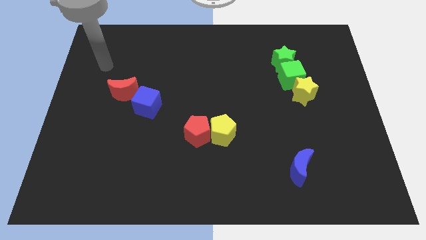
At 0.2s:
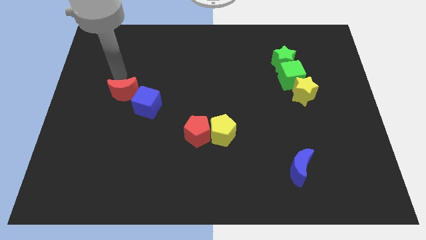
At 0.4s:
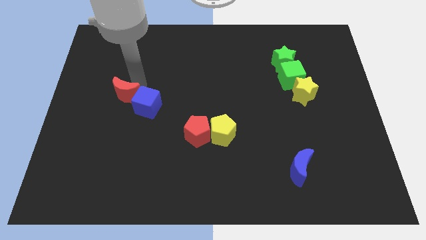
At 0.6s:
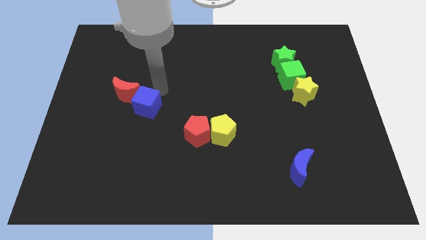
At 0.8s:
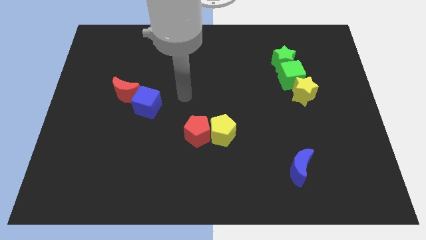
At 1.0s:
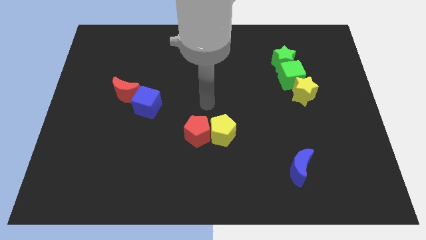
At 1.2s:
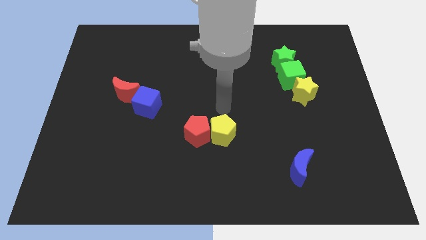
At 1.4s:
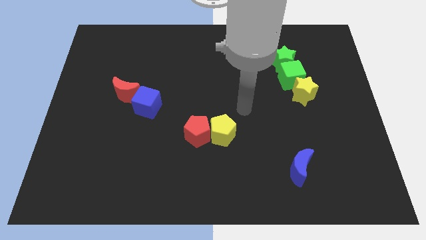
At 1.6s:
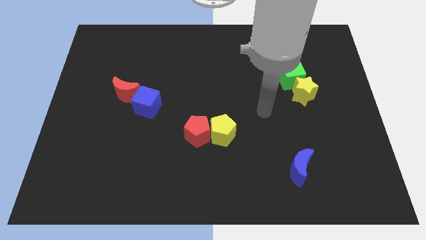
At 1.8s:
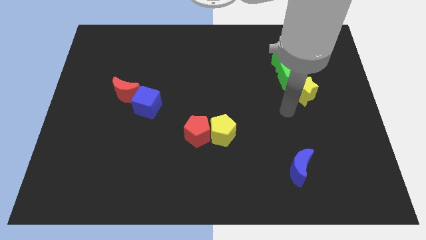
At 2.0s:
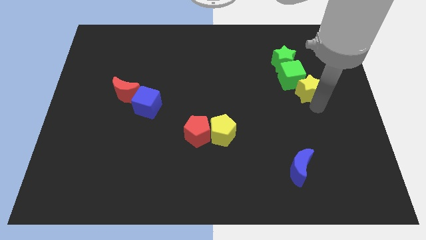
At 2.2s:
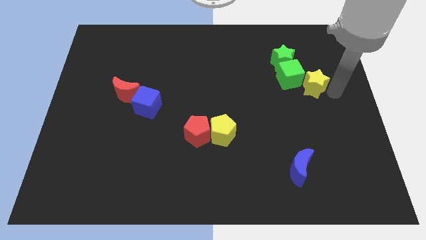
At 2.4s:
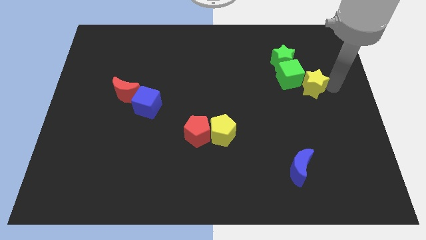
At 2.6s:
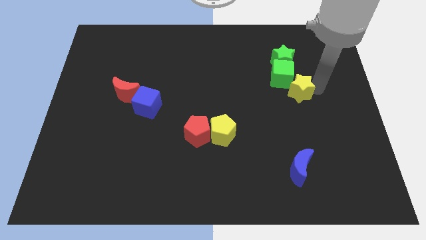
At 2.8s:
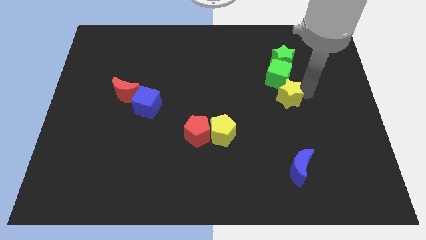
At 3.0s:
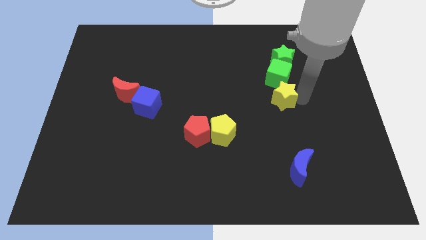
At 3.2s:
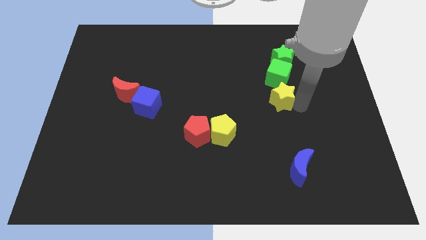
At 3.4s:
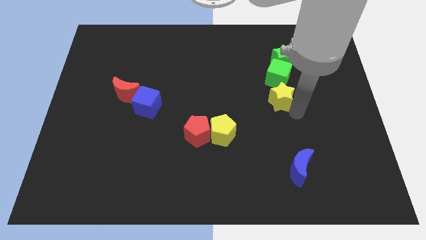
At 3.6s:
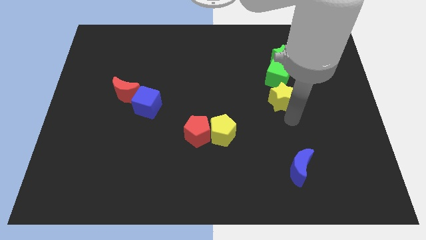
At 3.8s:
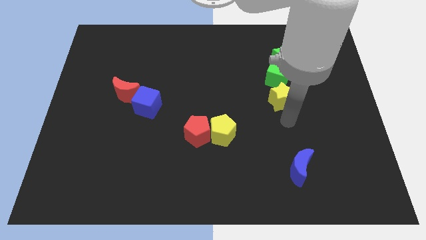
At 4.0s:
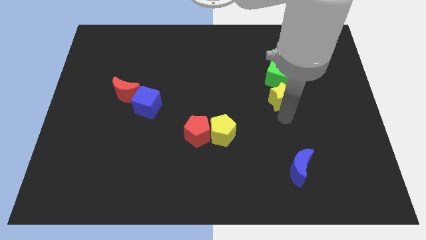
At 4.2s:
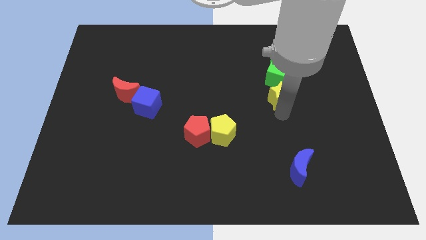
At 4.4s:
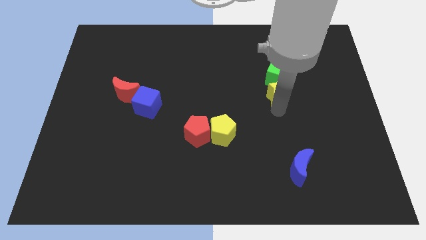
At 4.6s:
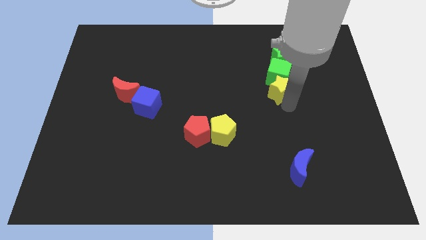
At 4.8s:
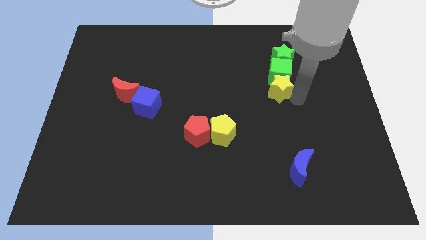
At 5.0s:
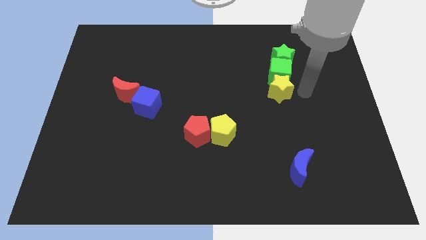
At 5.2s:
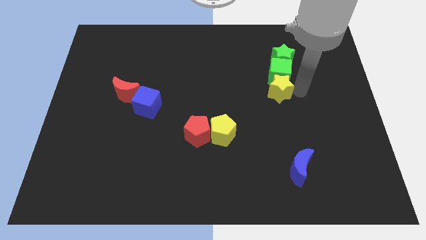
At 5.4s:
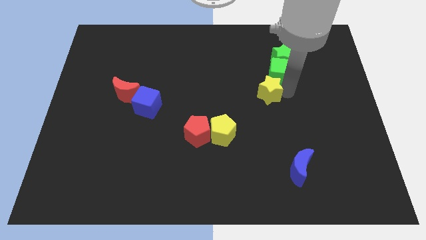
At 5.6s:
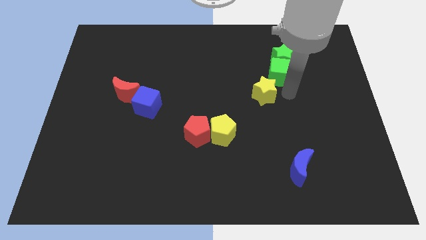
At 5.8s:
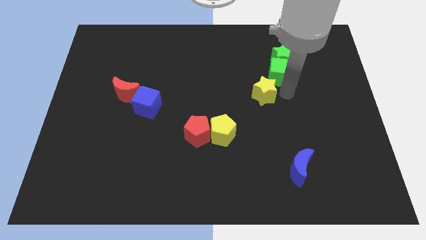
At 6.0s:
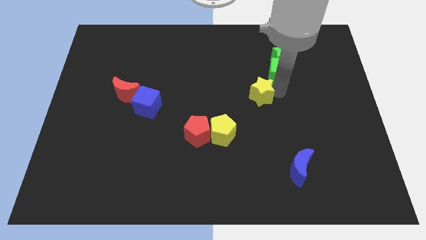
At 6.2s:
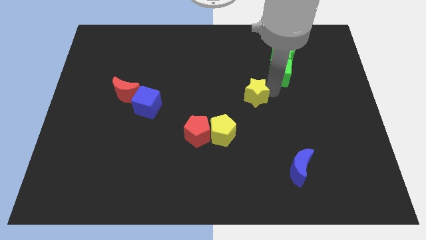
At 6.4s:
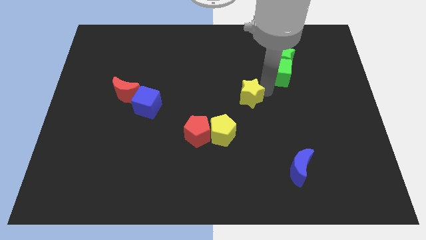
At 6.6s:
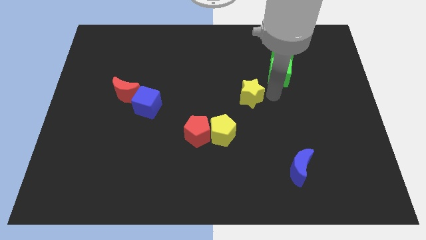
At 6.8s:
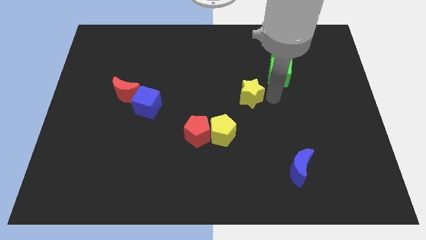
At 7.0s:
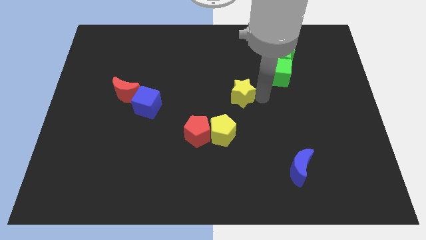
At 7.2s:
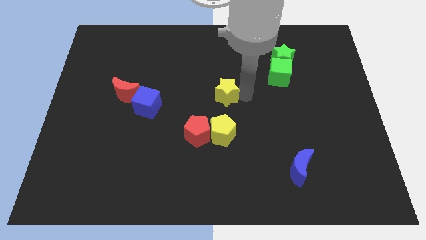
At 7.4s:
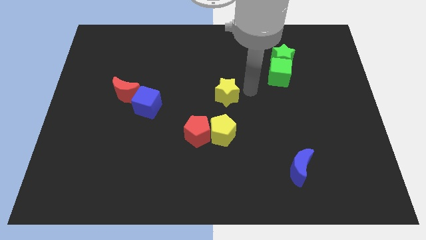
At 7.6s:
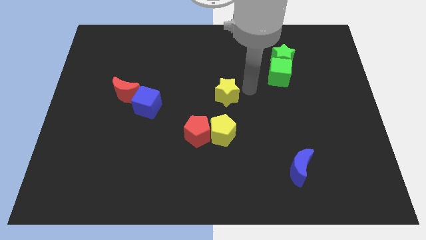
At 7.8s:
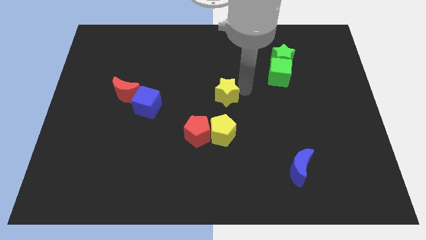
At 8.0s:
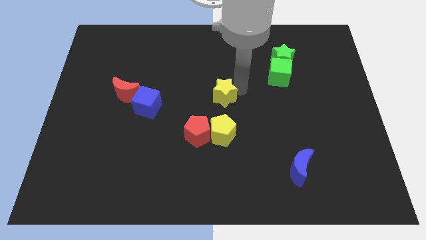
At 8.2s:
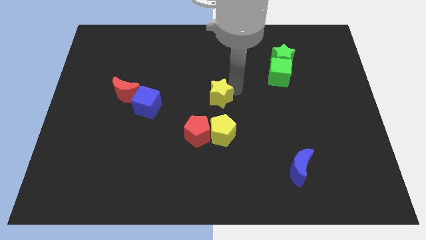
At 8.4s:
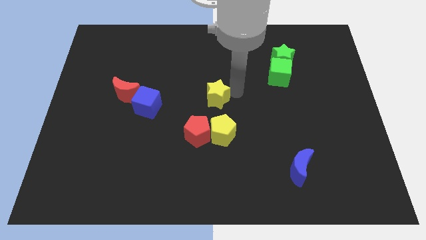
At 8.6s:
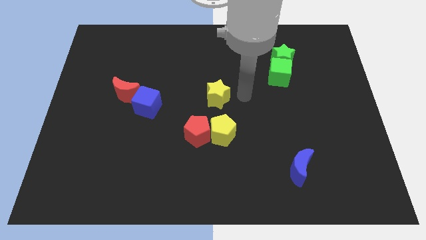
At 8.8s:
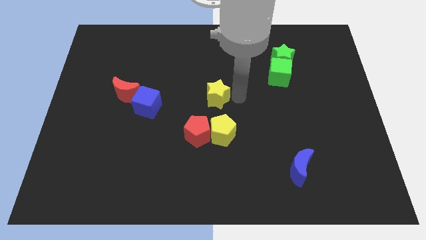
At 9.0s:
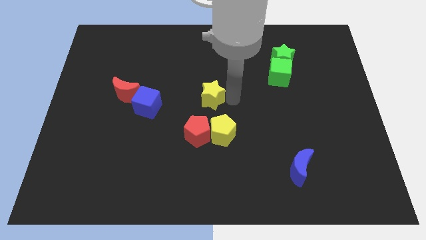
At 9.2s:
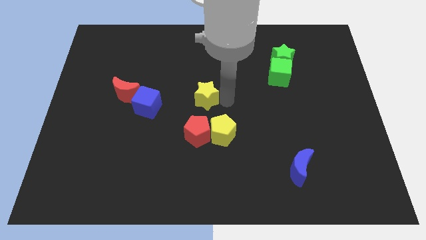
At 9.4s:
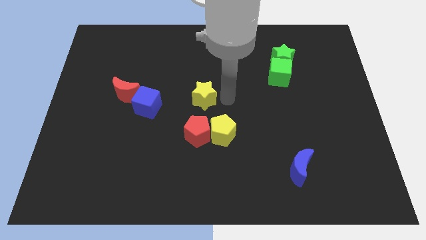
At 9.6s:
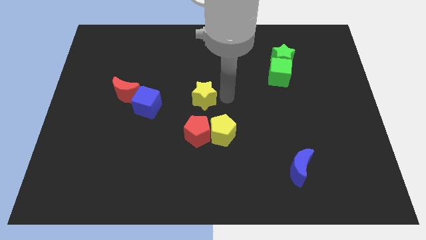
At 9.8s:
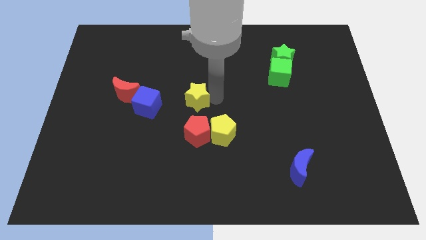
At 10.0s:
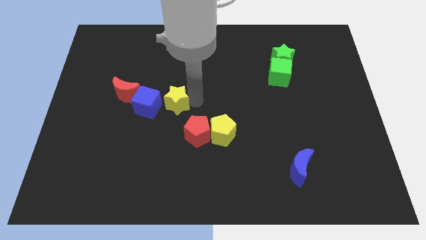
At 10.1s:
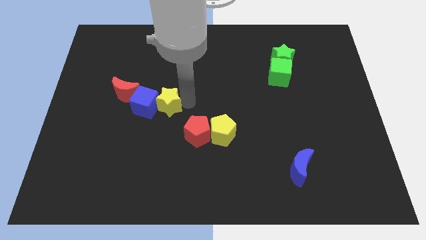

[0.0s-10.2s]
put the yellow star close to the blue cube

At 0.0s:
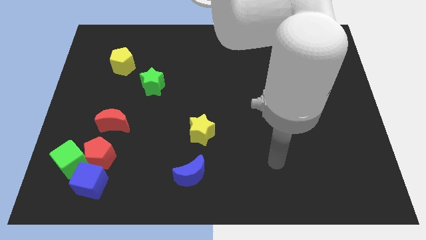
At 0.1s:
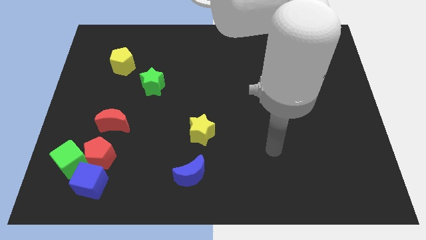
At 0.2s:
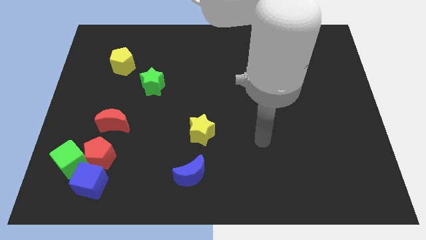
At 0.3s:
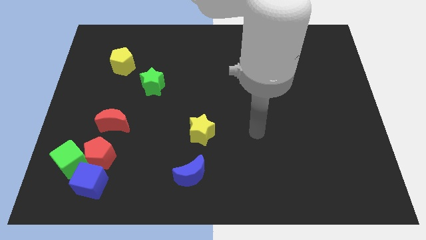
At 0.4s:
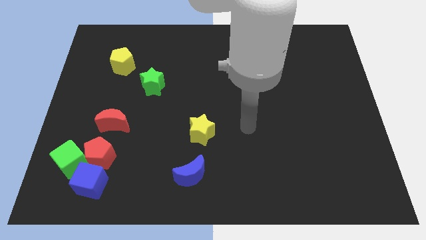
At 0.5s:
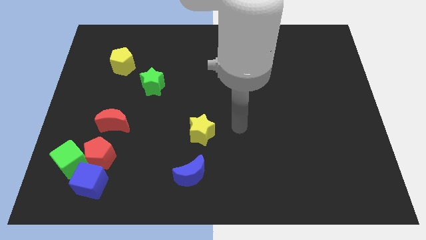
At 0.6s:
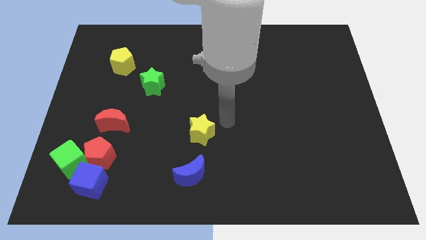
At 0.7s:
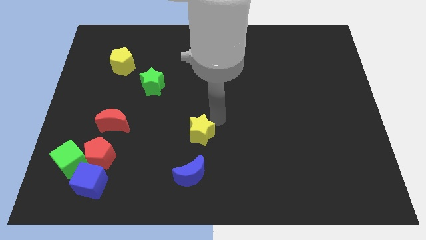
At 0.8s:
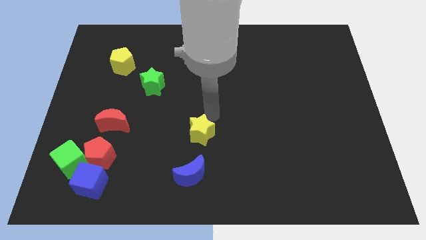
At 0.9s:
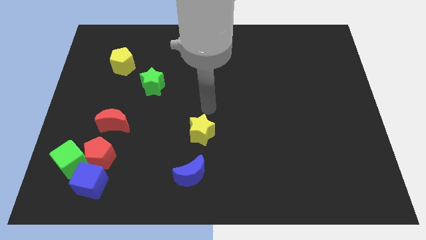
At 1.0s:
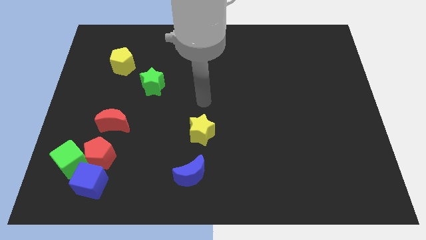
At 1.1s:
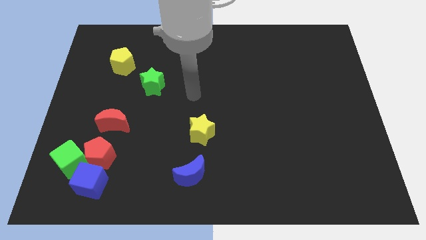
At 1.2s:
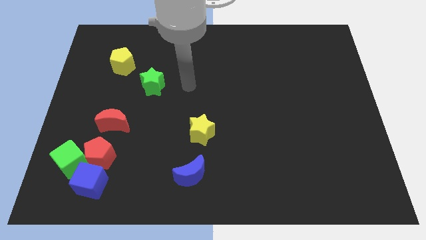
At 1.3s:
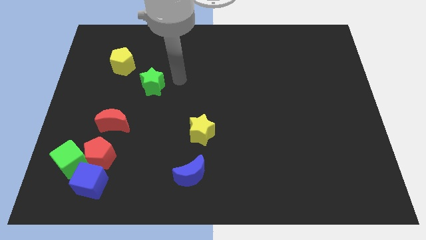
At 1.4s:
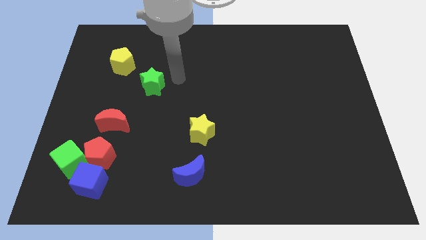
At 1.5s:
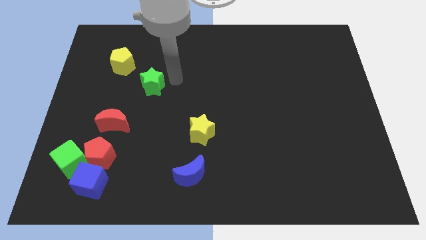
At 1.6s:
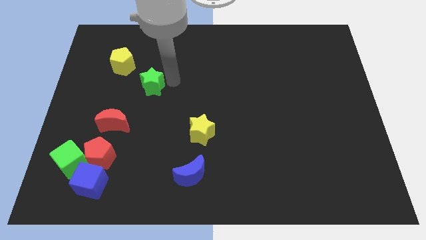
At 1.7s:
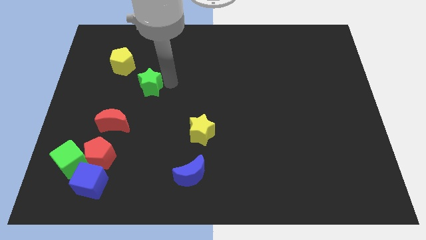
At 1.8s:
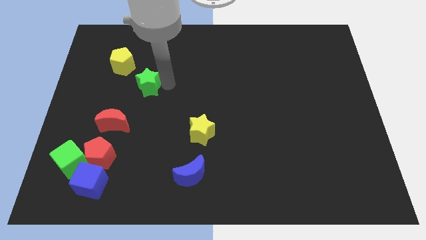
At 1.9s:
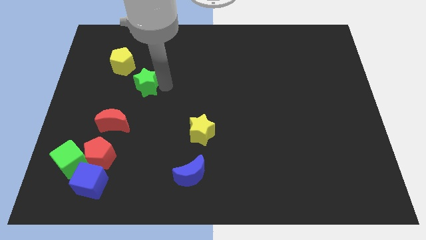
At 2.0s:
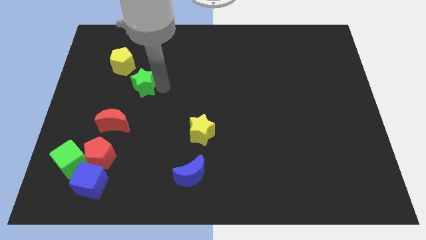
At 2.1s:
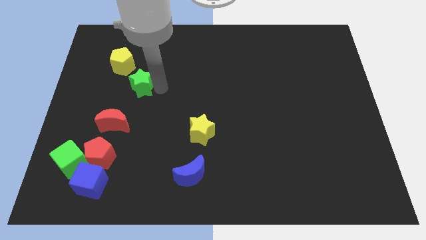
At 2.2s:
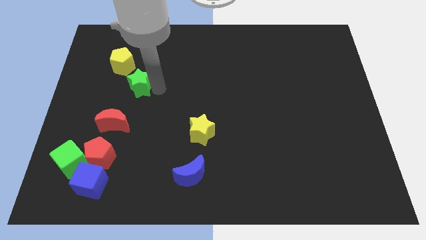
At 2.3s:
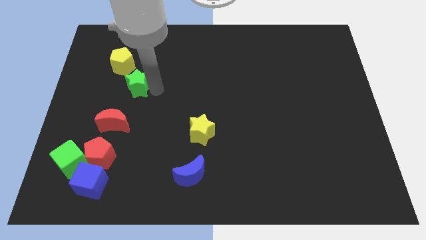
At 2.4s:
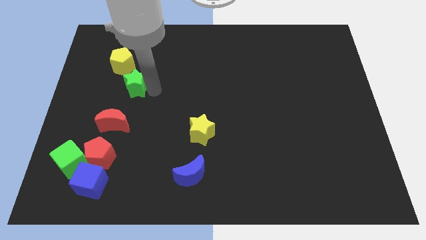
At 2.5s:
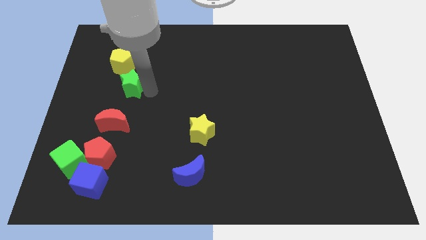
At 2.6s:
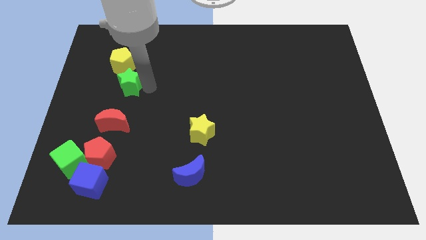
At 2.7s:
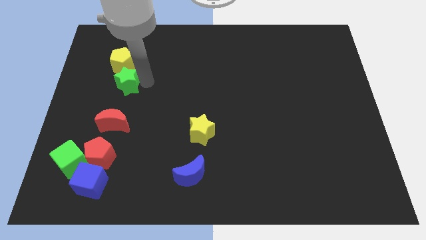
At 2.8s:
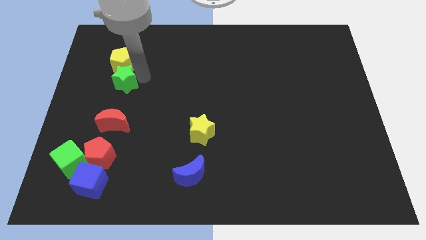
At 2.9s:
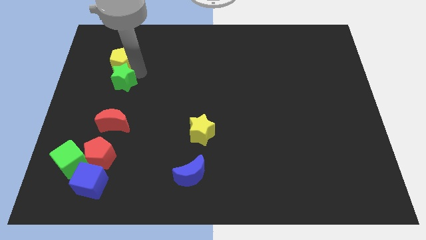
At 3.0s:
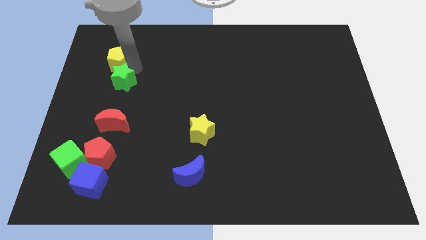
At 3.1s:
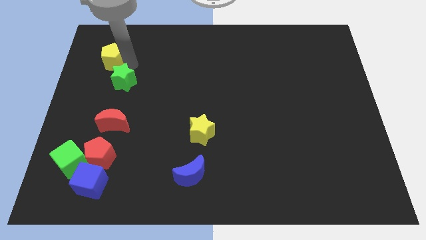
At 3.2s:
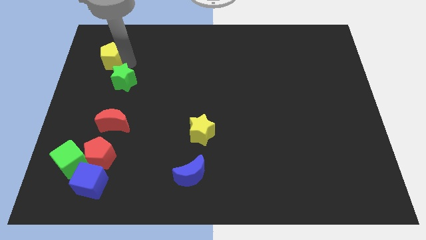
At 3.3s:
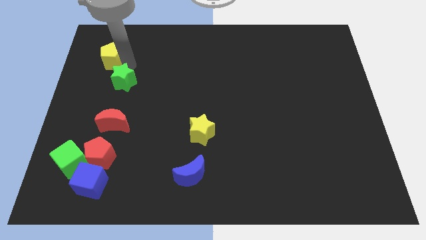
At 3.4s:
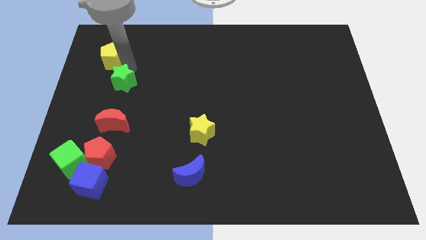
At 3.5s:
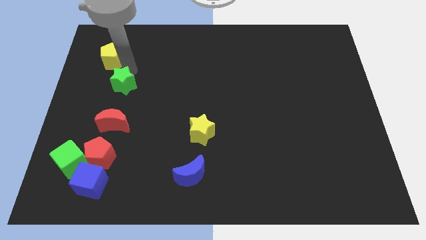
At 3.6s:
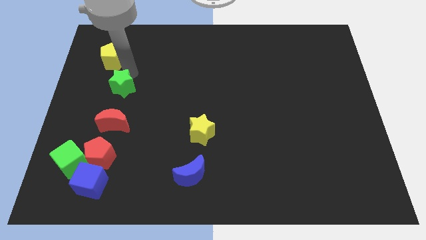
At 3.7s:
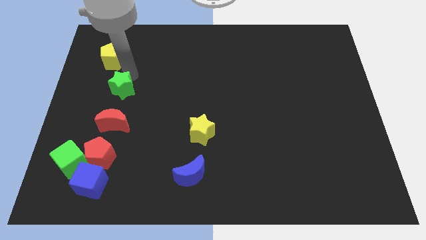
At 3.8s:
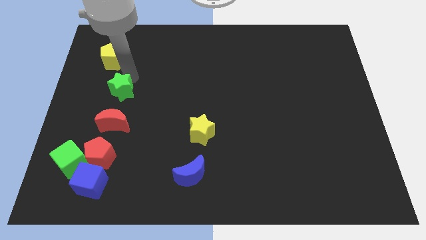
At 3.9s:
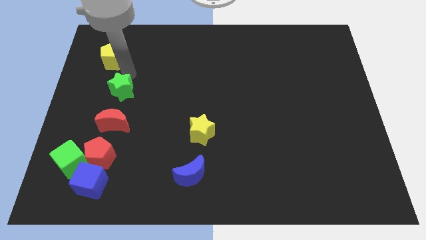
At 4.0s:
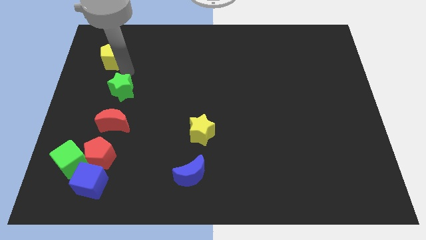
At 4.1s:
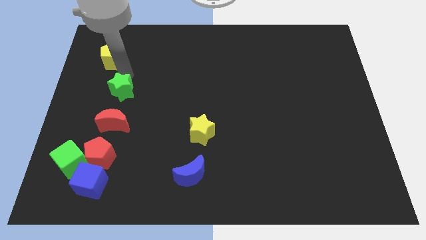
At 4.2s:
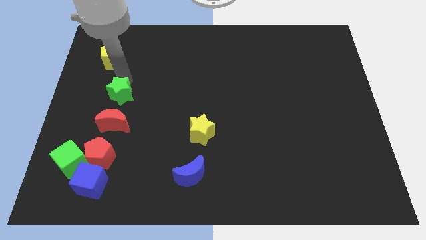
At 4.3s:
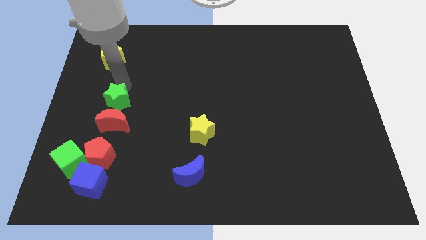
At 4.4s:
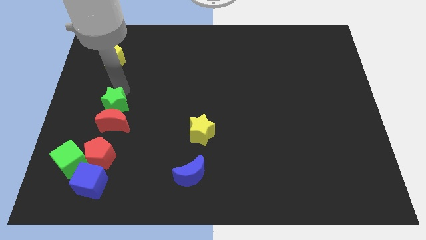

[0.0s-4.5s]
put the green star to the red moon
